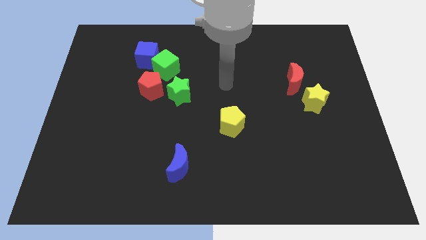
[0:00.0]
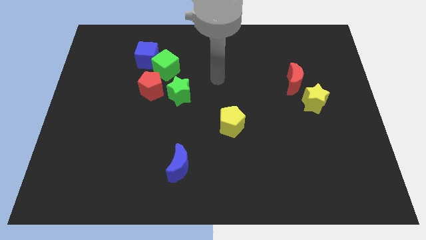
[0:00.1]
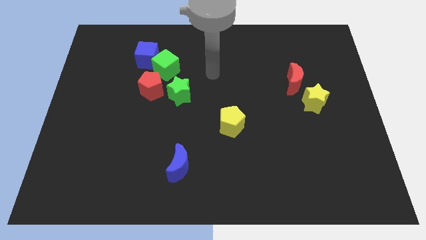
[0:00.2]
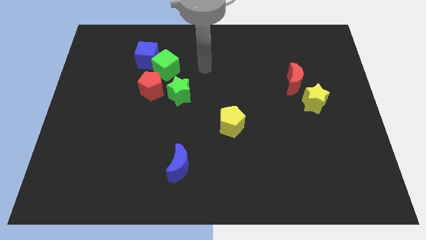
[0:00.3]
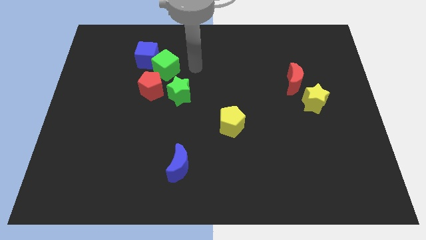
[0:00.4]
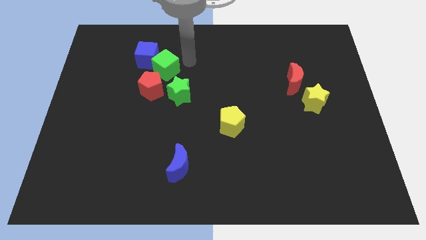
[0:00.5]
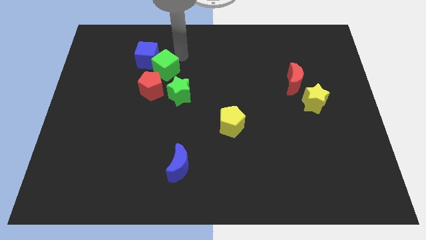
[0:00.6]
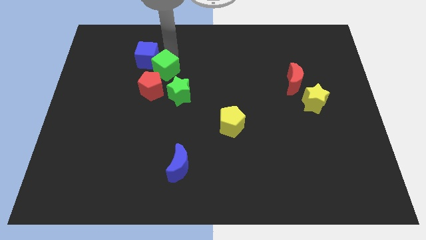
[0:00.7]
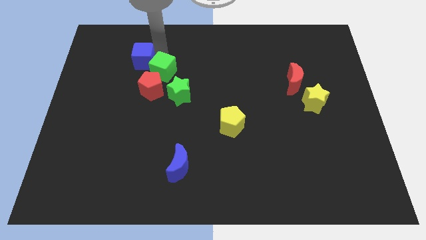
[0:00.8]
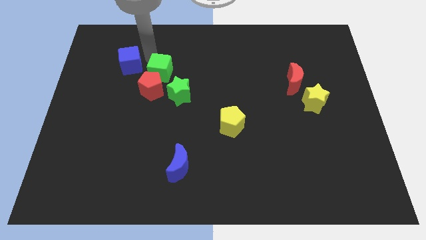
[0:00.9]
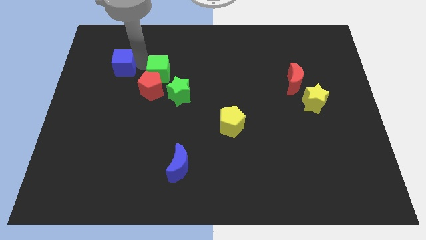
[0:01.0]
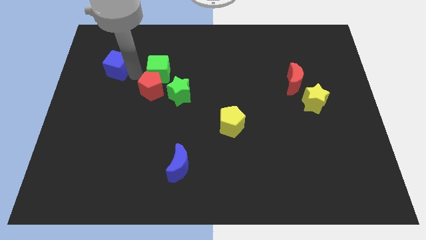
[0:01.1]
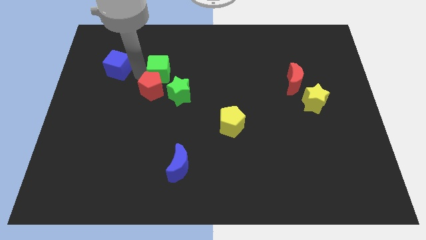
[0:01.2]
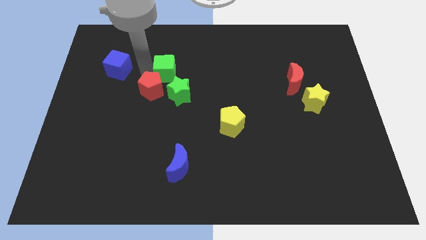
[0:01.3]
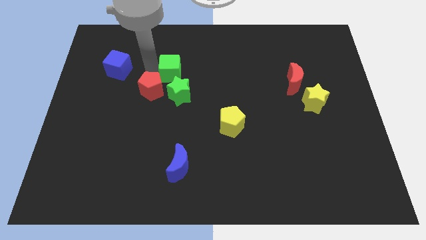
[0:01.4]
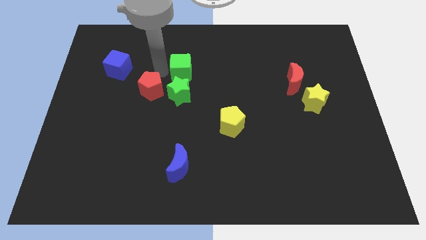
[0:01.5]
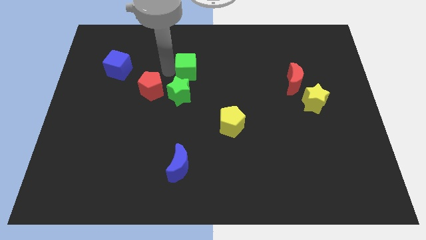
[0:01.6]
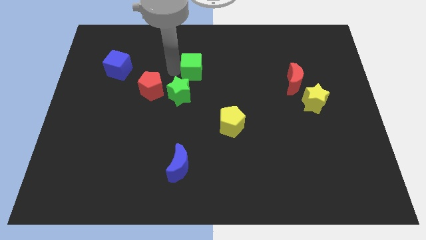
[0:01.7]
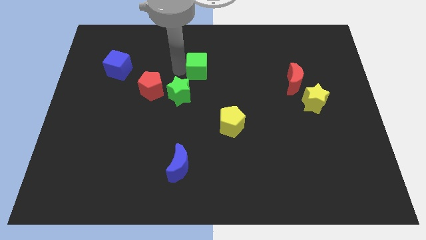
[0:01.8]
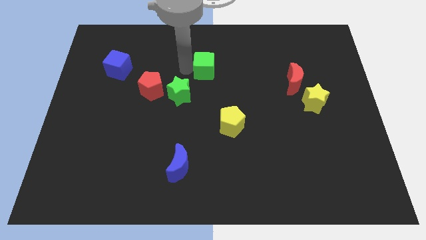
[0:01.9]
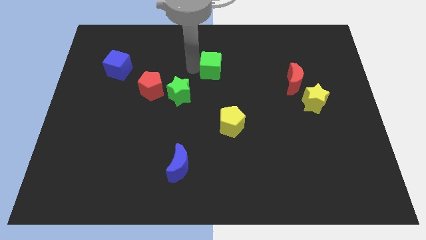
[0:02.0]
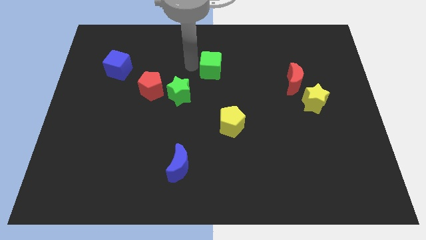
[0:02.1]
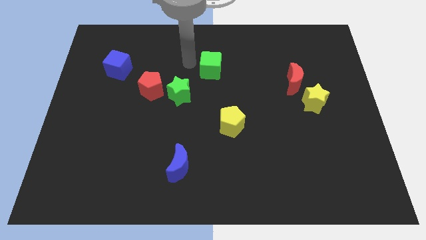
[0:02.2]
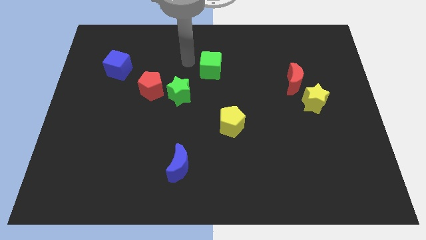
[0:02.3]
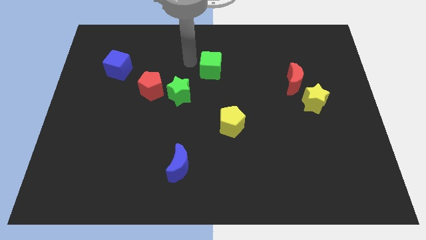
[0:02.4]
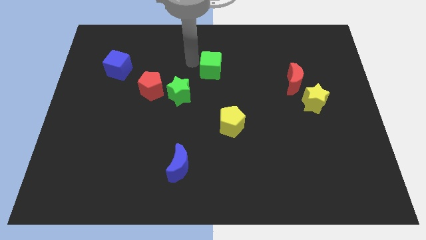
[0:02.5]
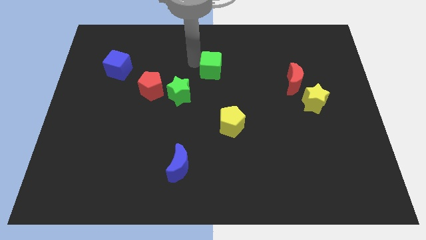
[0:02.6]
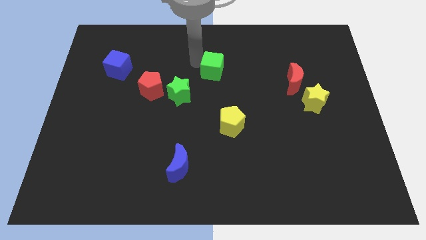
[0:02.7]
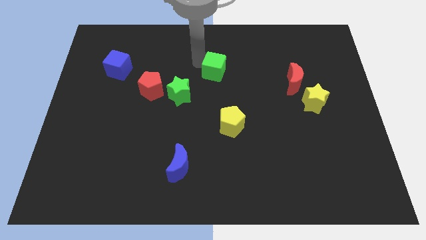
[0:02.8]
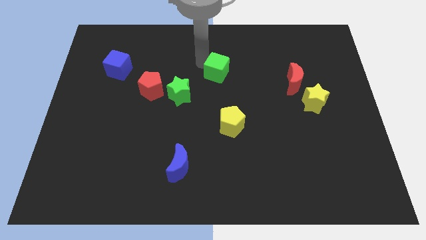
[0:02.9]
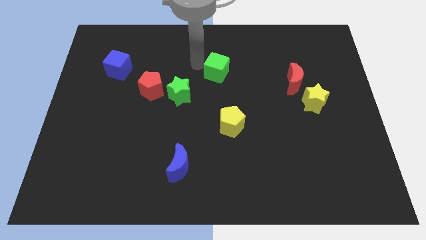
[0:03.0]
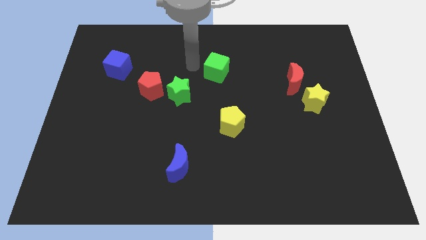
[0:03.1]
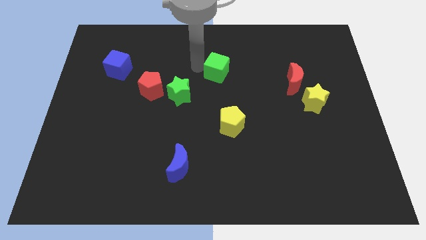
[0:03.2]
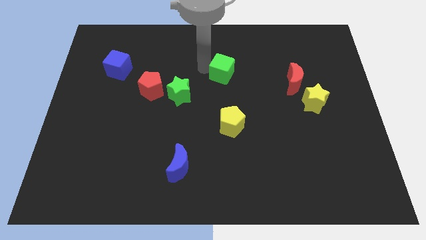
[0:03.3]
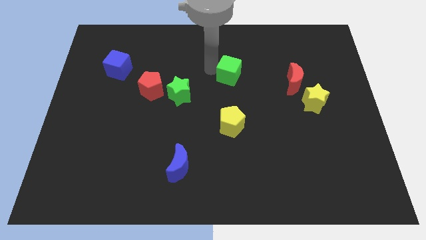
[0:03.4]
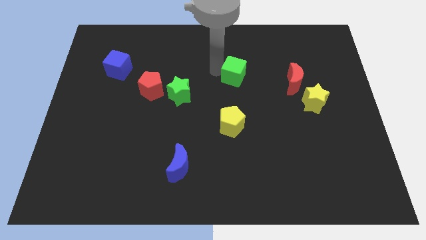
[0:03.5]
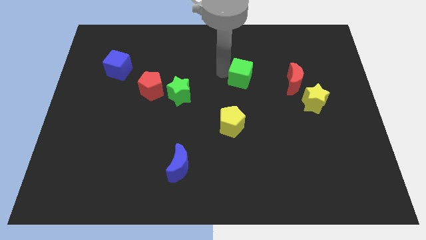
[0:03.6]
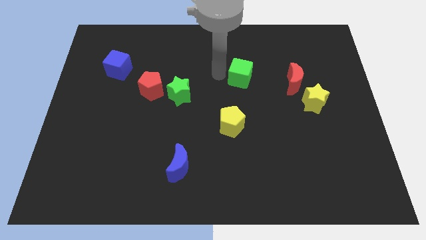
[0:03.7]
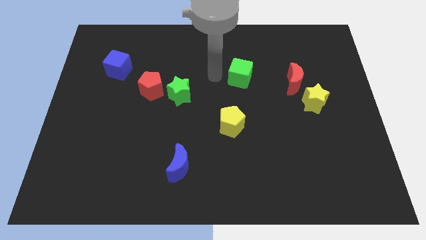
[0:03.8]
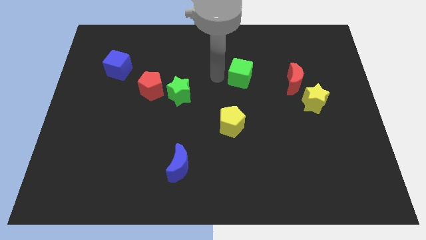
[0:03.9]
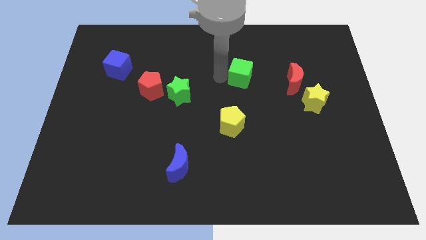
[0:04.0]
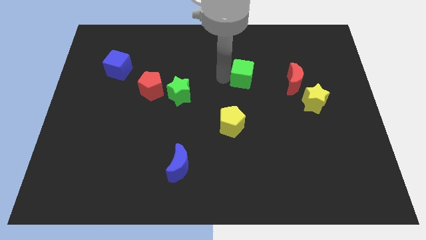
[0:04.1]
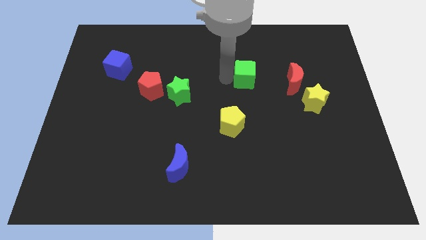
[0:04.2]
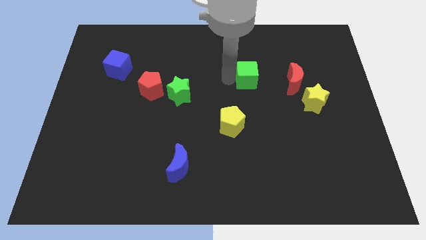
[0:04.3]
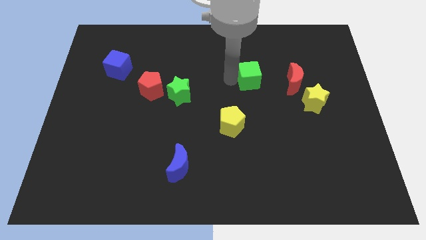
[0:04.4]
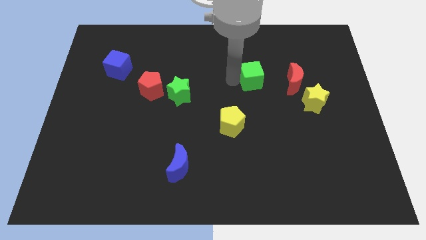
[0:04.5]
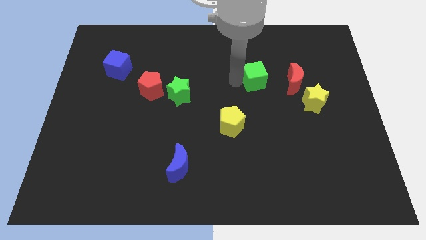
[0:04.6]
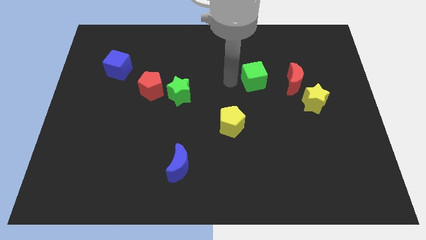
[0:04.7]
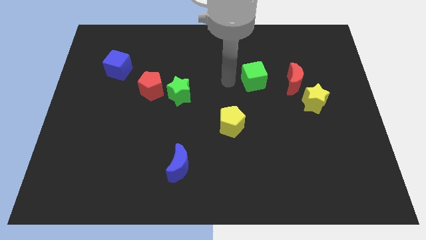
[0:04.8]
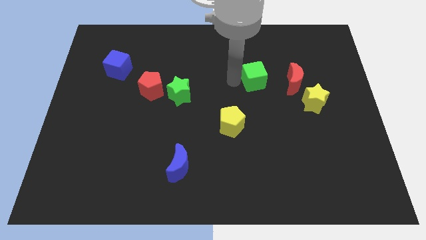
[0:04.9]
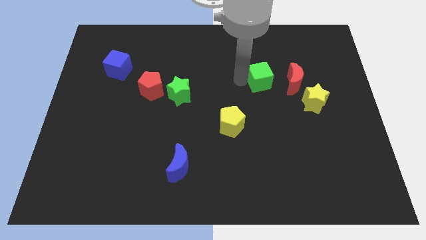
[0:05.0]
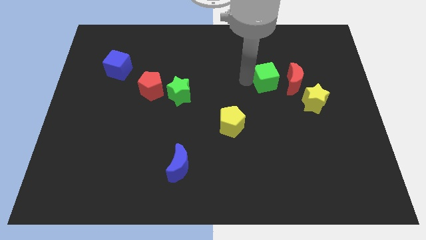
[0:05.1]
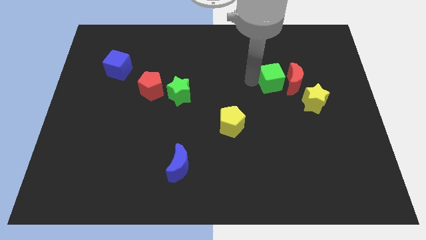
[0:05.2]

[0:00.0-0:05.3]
push the green cube diagonally up and to the left of the yellow star

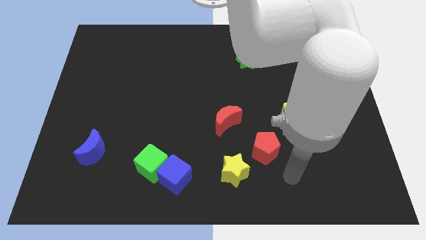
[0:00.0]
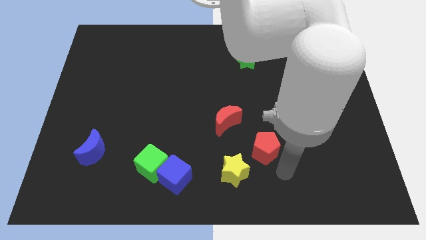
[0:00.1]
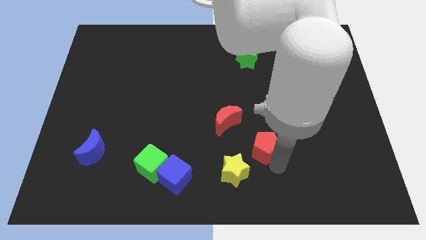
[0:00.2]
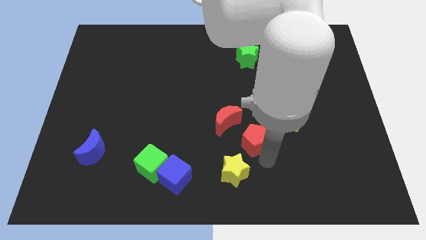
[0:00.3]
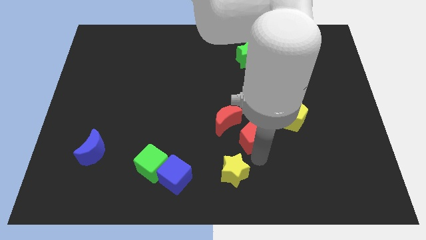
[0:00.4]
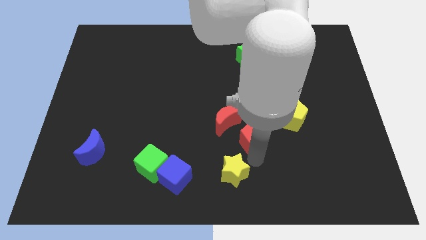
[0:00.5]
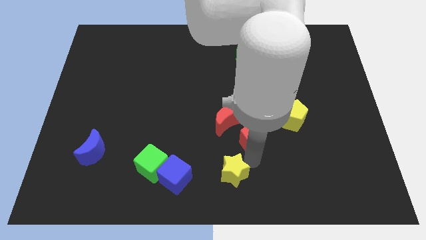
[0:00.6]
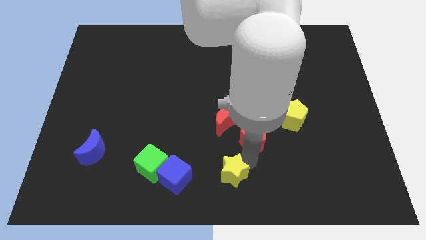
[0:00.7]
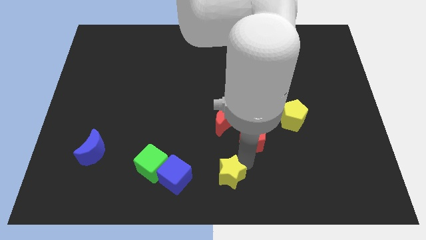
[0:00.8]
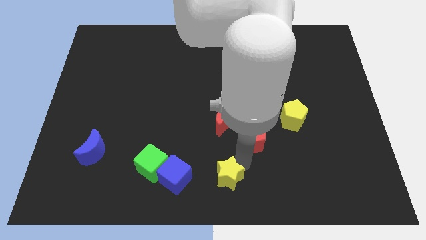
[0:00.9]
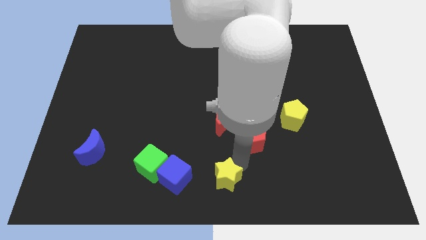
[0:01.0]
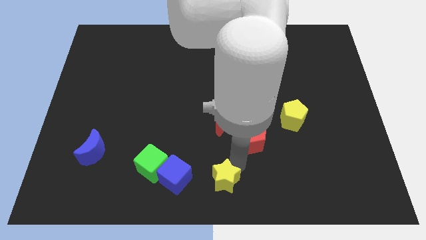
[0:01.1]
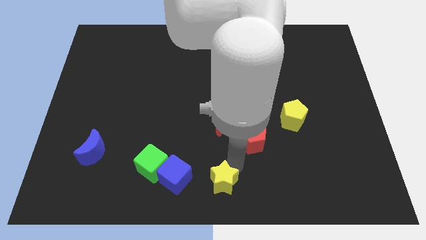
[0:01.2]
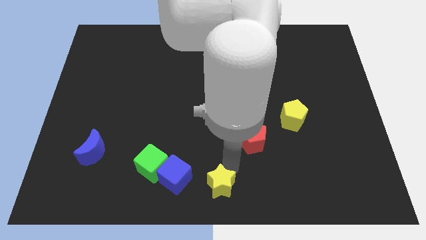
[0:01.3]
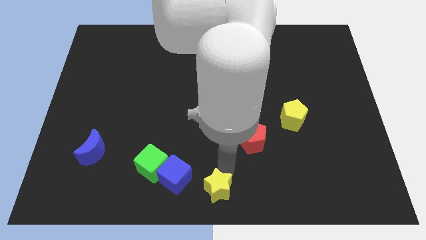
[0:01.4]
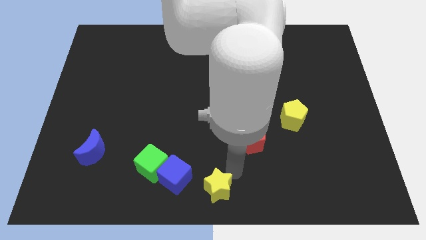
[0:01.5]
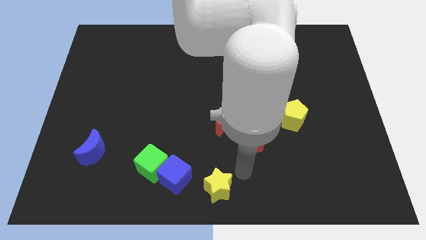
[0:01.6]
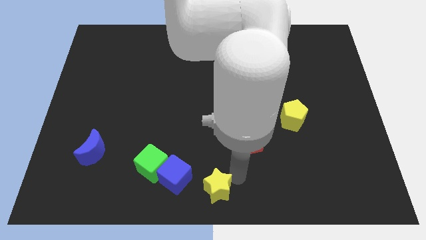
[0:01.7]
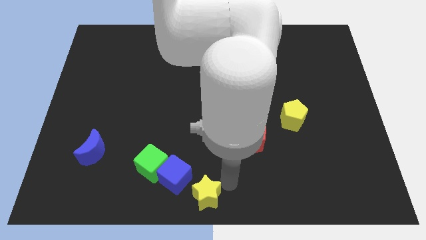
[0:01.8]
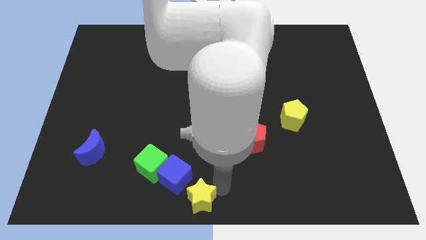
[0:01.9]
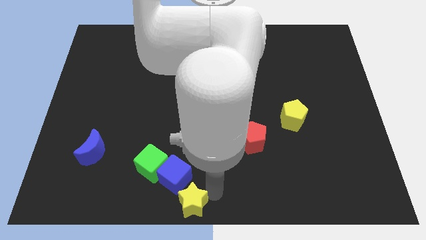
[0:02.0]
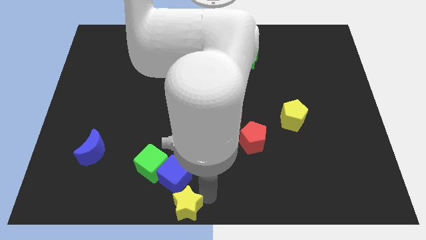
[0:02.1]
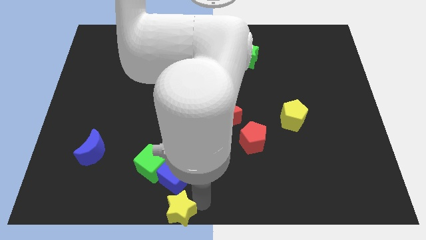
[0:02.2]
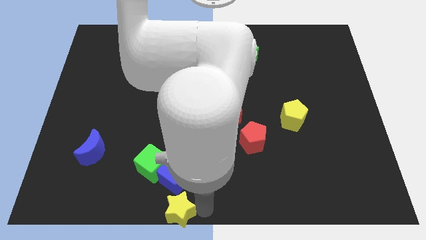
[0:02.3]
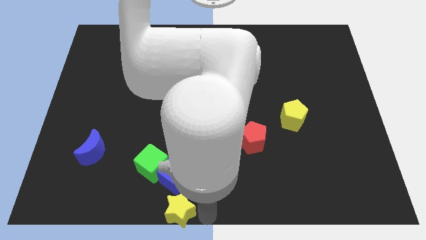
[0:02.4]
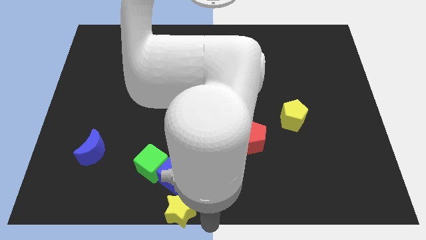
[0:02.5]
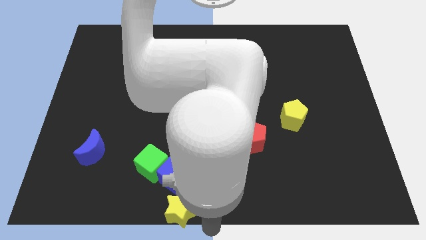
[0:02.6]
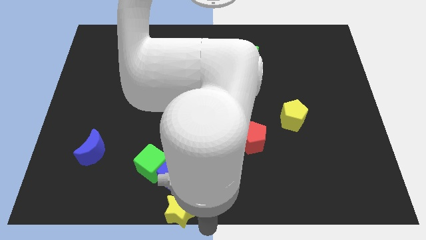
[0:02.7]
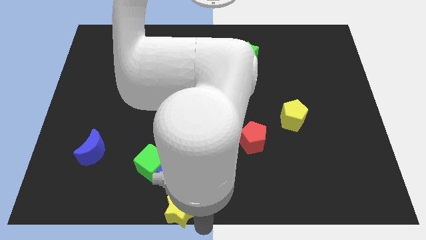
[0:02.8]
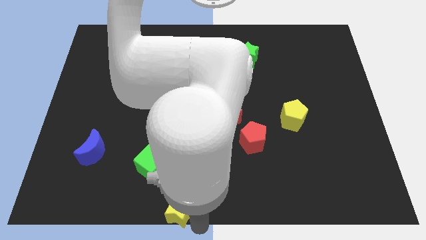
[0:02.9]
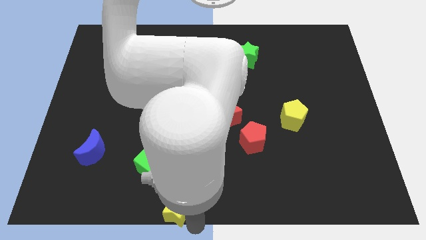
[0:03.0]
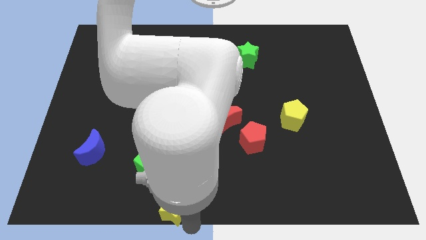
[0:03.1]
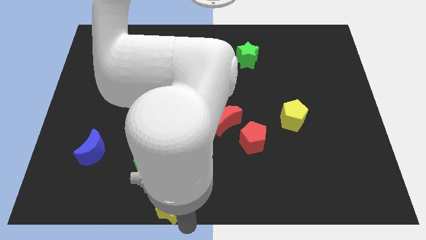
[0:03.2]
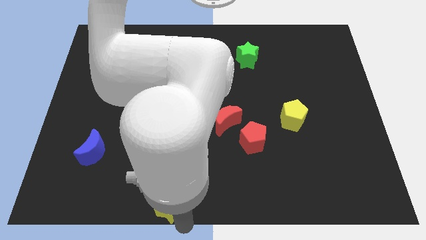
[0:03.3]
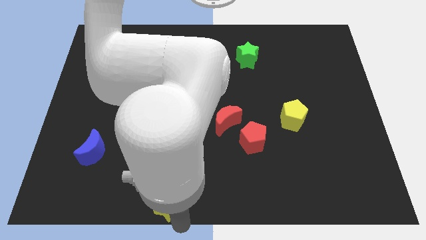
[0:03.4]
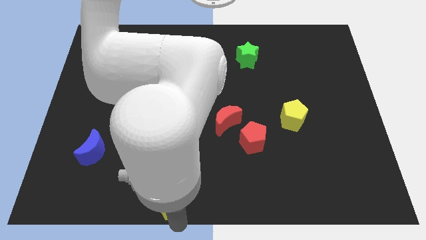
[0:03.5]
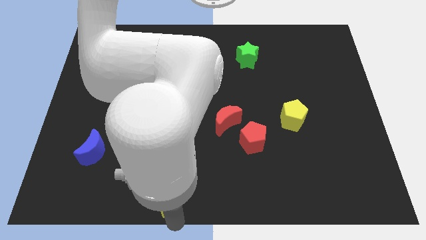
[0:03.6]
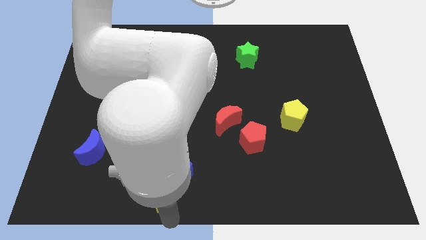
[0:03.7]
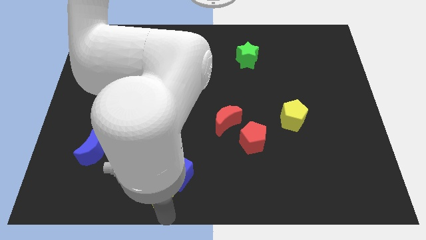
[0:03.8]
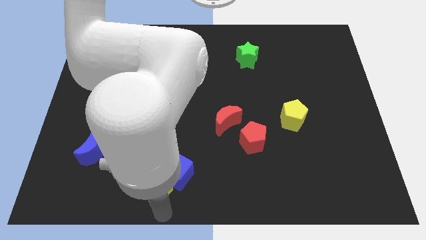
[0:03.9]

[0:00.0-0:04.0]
push the yellow star just left of the blue cube
